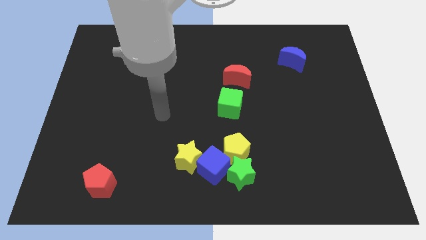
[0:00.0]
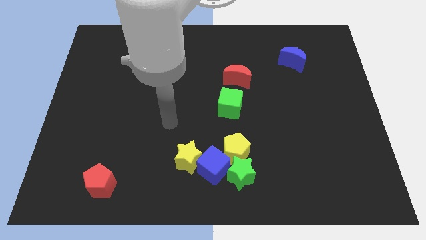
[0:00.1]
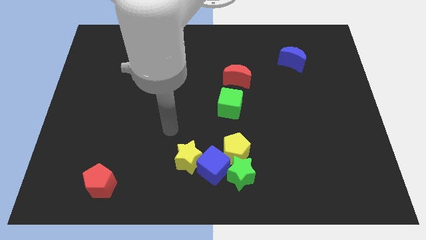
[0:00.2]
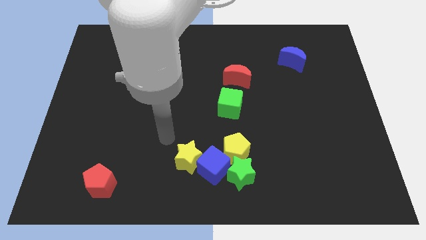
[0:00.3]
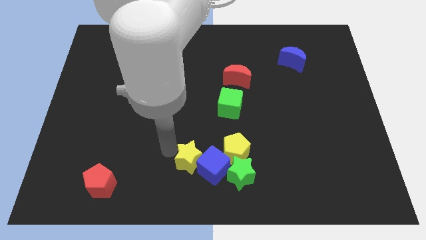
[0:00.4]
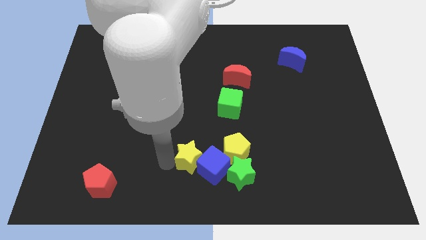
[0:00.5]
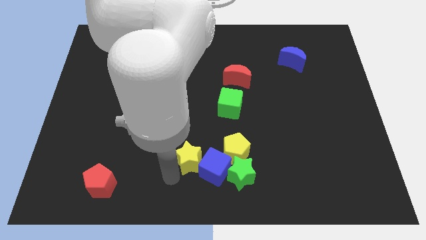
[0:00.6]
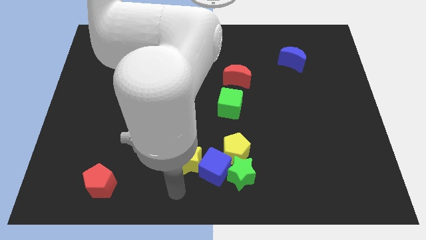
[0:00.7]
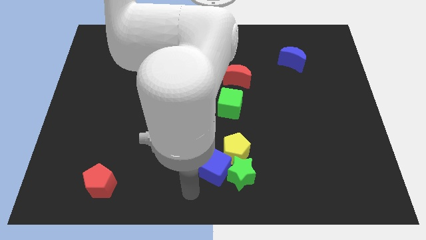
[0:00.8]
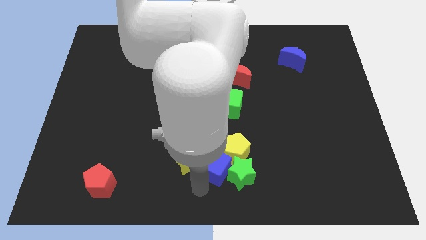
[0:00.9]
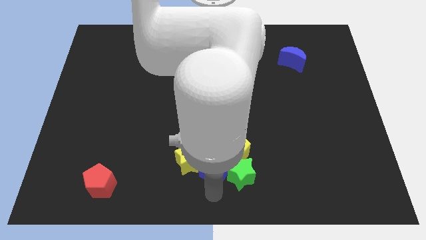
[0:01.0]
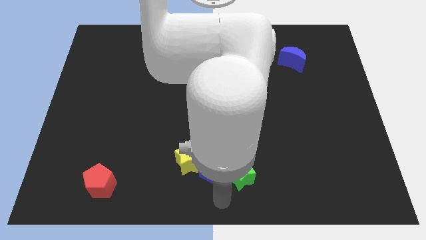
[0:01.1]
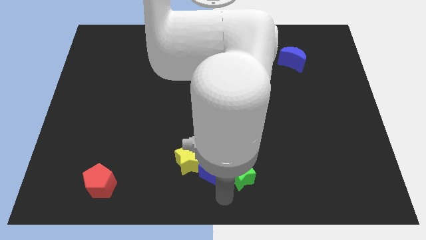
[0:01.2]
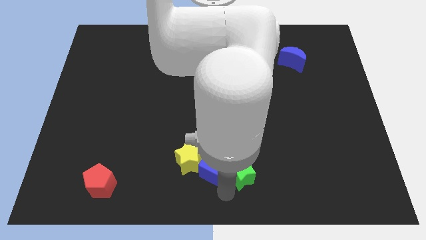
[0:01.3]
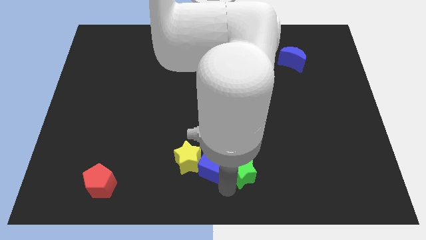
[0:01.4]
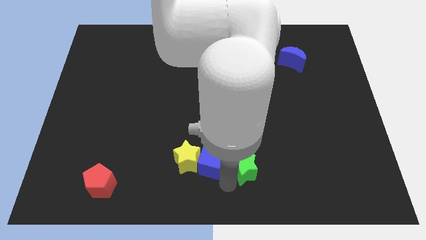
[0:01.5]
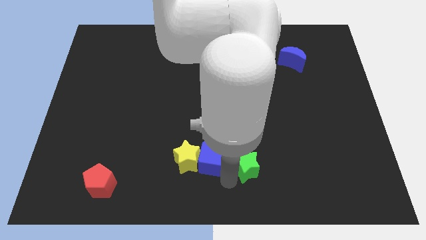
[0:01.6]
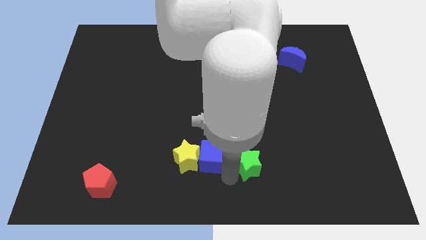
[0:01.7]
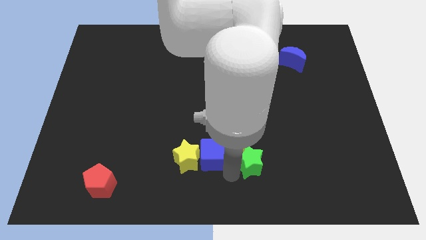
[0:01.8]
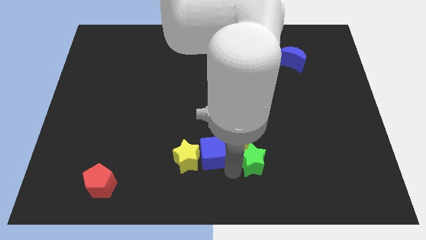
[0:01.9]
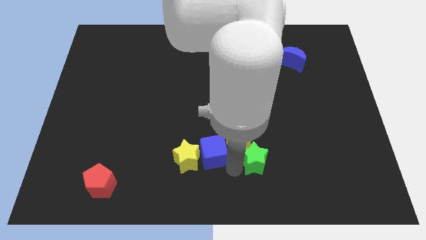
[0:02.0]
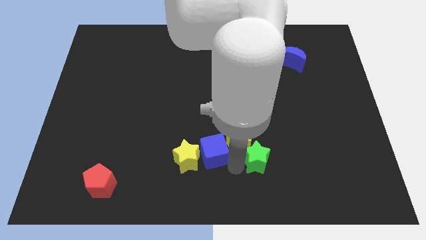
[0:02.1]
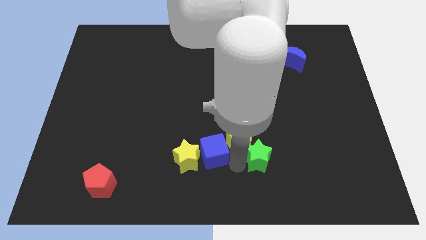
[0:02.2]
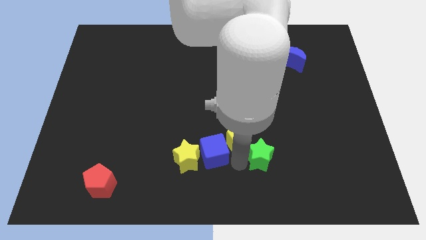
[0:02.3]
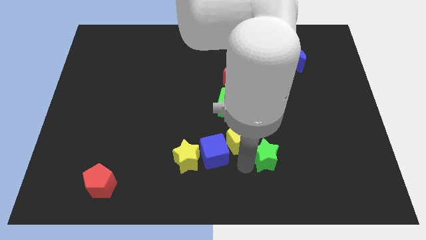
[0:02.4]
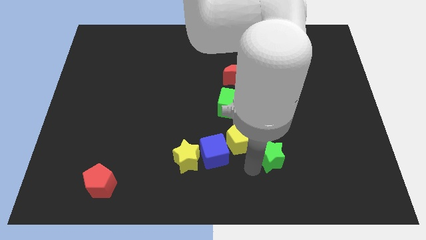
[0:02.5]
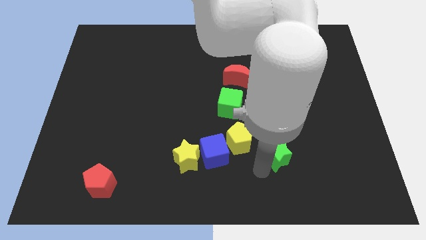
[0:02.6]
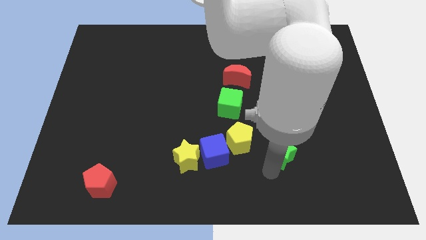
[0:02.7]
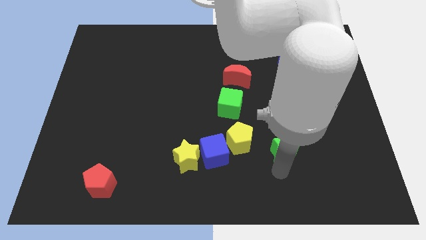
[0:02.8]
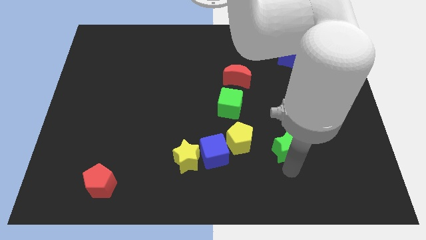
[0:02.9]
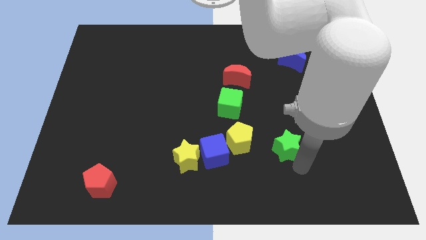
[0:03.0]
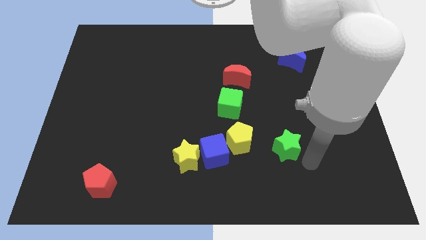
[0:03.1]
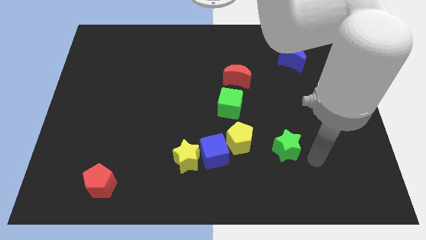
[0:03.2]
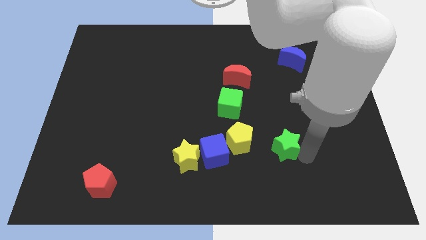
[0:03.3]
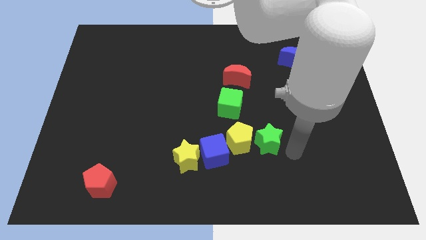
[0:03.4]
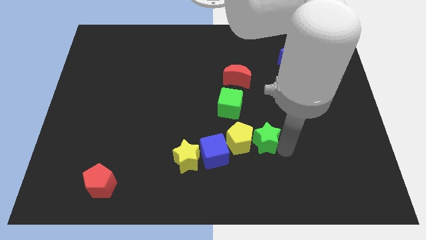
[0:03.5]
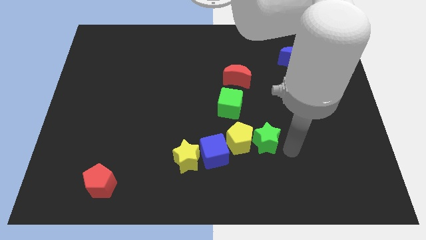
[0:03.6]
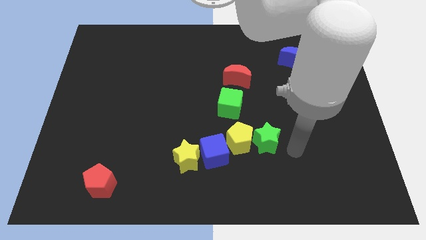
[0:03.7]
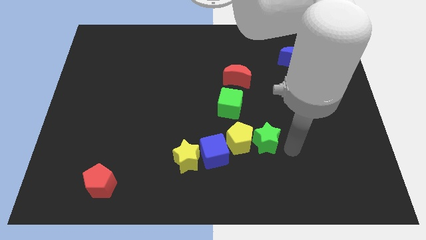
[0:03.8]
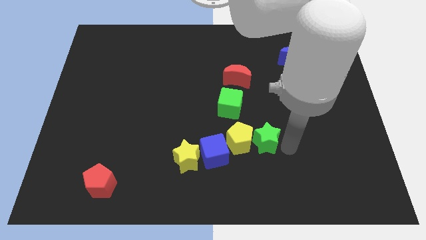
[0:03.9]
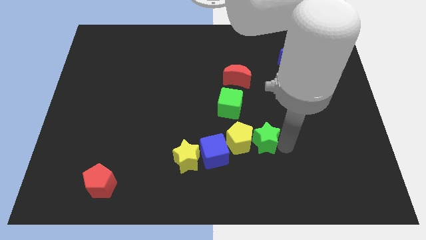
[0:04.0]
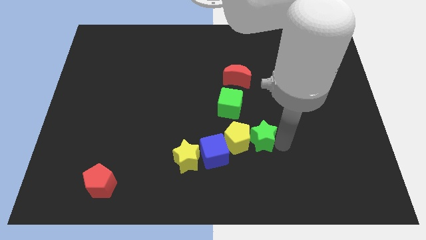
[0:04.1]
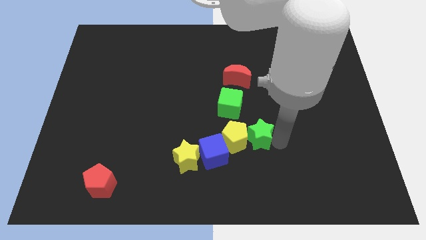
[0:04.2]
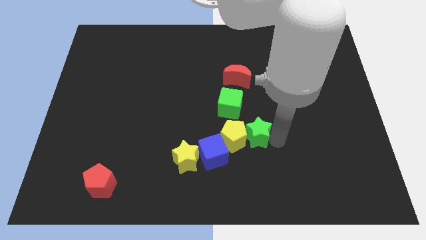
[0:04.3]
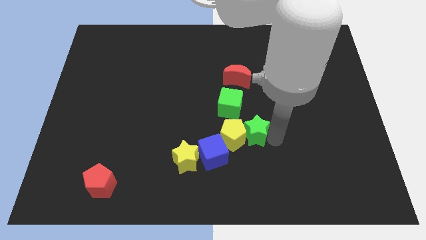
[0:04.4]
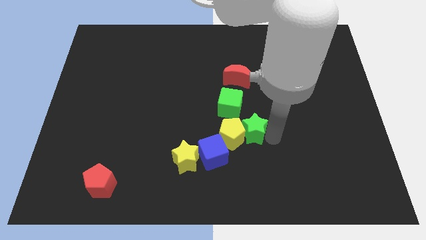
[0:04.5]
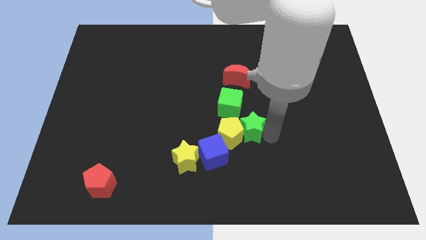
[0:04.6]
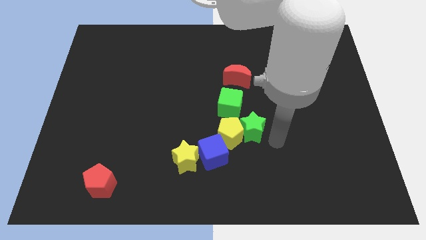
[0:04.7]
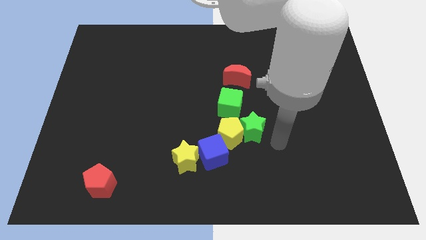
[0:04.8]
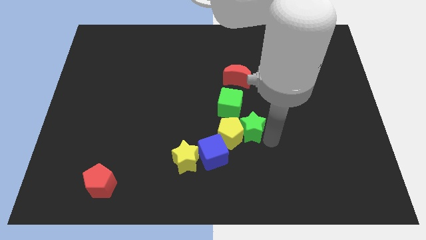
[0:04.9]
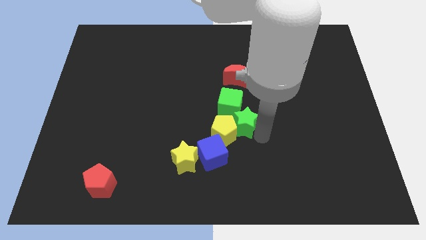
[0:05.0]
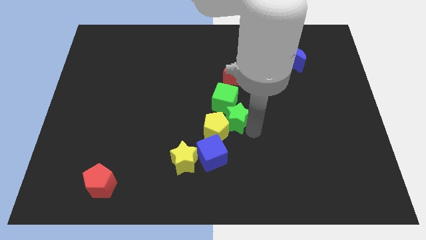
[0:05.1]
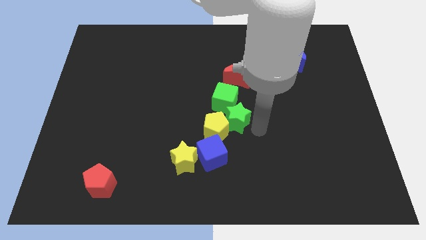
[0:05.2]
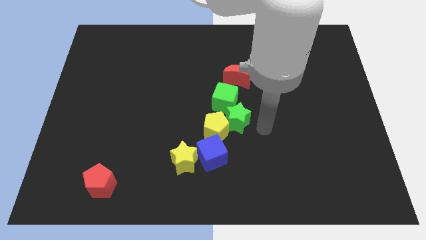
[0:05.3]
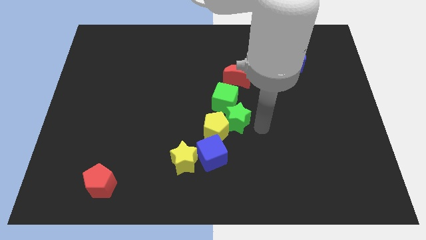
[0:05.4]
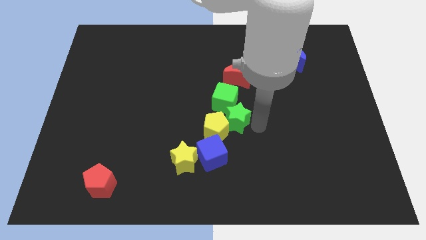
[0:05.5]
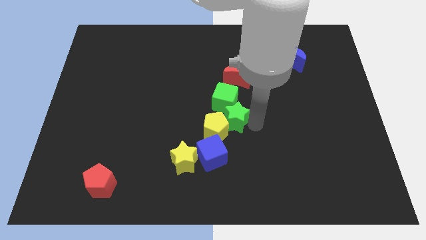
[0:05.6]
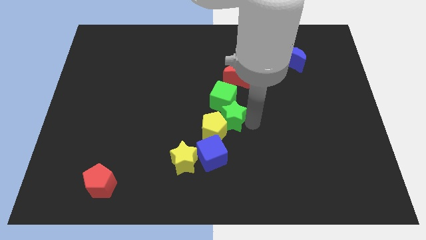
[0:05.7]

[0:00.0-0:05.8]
push the green star to the top of the blue cube

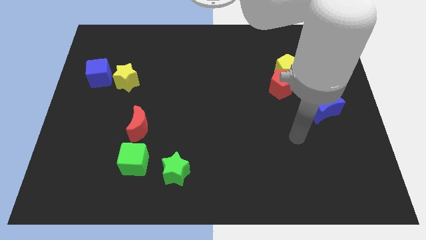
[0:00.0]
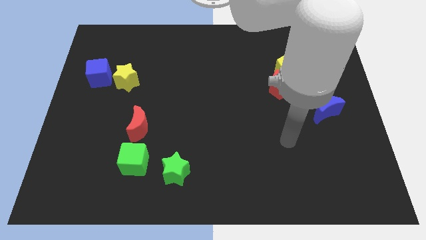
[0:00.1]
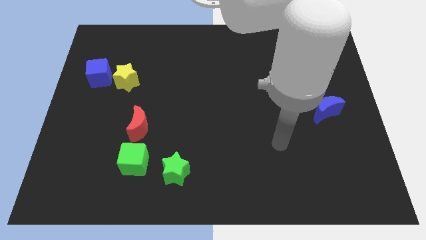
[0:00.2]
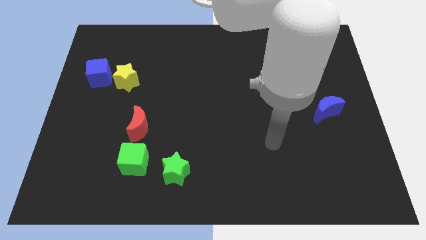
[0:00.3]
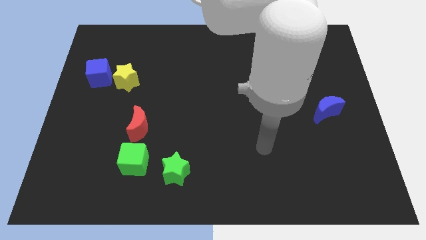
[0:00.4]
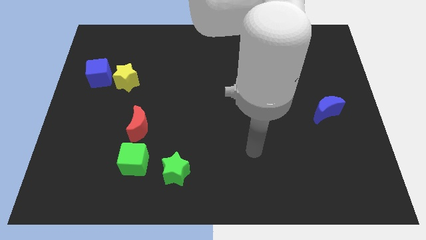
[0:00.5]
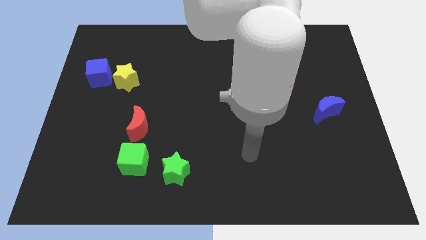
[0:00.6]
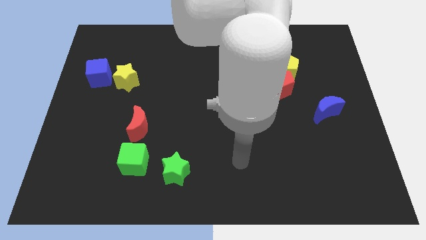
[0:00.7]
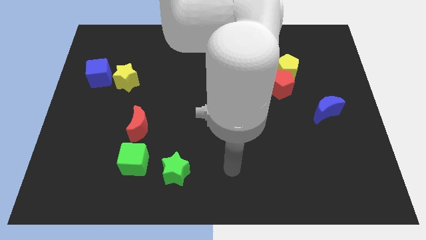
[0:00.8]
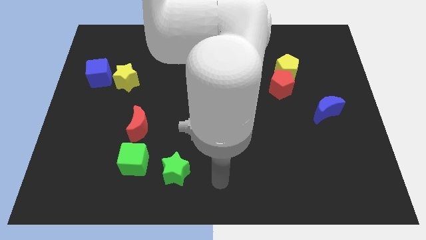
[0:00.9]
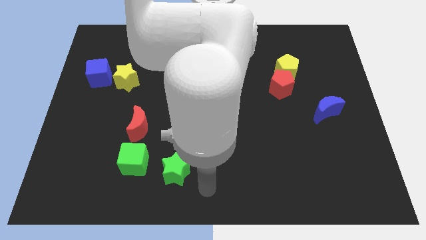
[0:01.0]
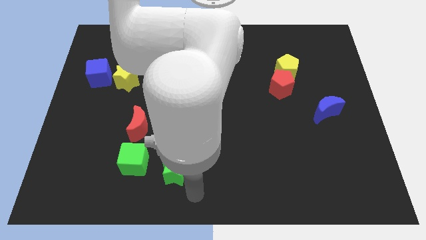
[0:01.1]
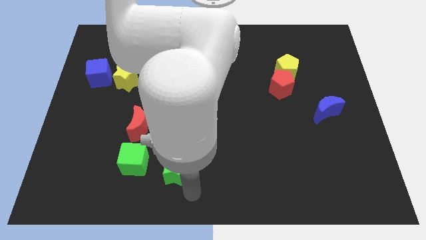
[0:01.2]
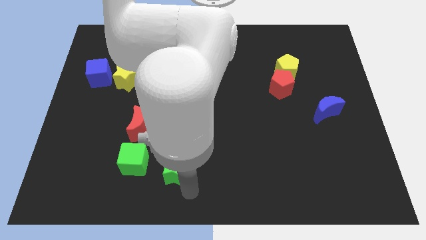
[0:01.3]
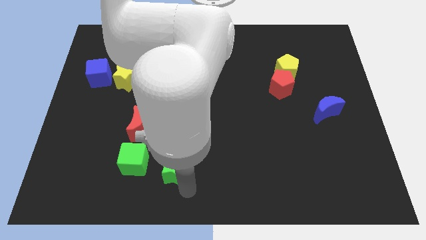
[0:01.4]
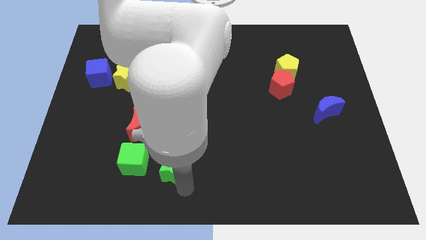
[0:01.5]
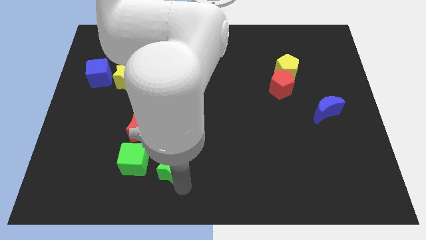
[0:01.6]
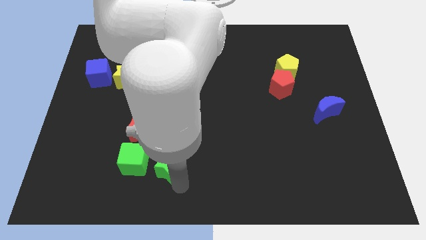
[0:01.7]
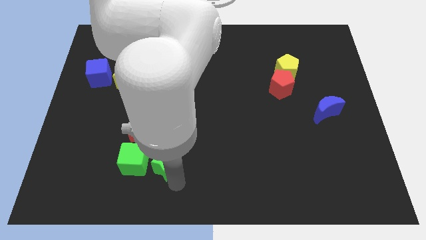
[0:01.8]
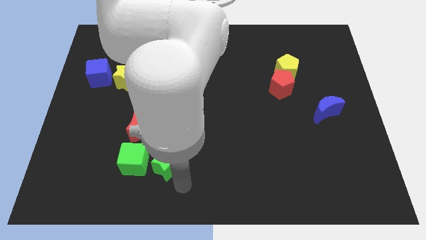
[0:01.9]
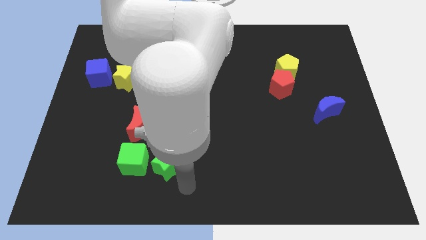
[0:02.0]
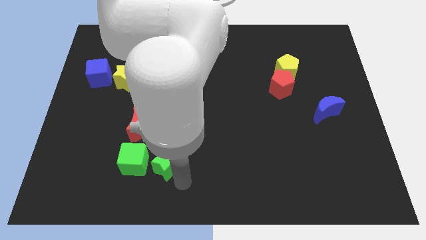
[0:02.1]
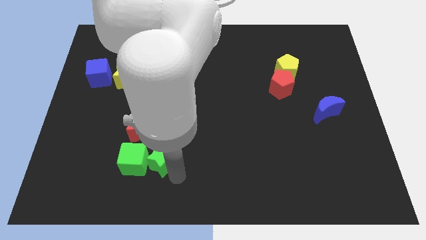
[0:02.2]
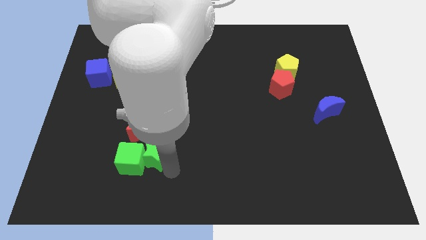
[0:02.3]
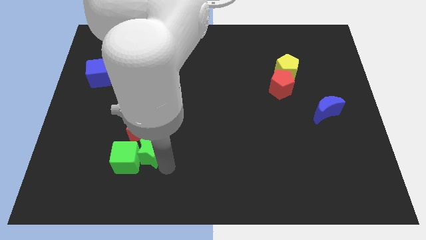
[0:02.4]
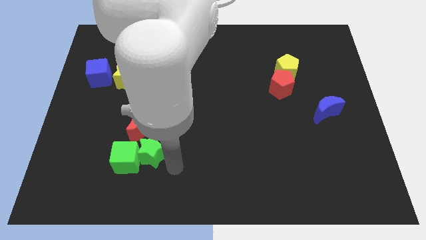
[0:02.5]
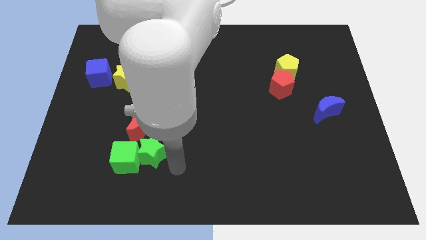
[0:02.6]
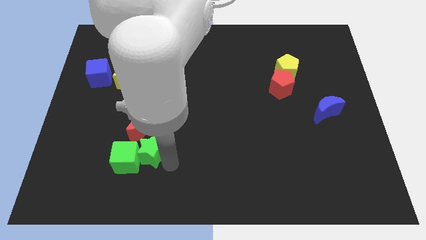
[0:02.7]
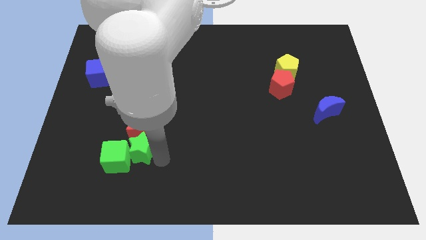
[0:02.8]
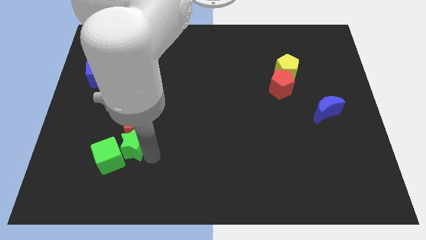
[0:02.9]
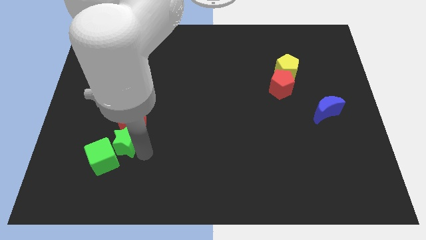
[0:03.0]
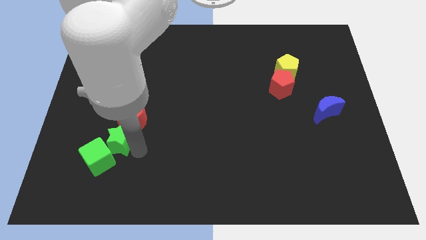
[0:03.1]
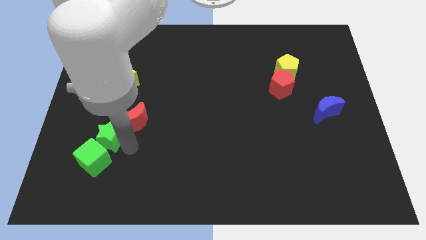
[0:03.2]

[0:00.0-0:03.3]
slide the green star just left of the red moon
